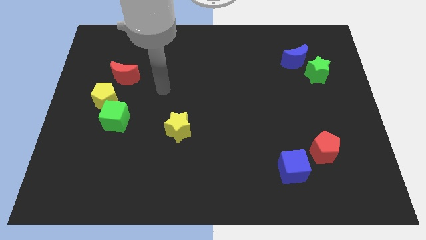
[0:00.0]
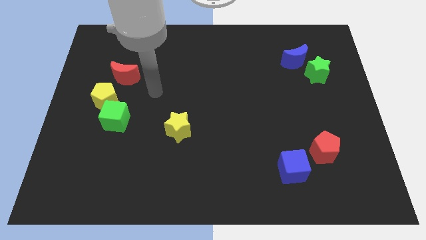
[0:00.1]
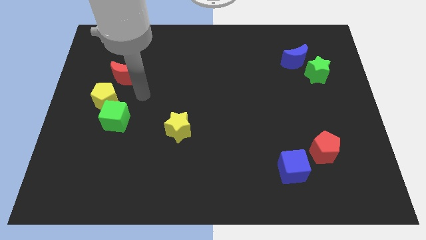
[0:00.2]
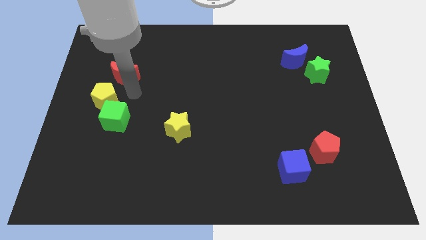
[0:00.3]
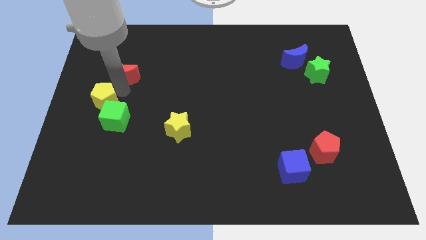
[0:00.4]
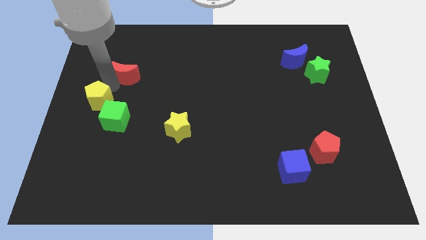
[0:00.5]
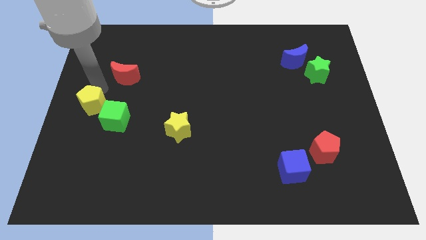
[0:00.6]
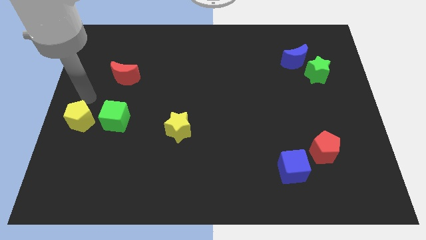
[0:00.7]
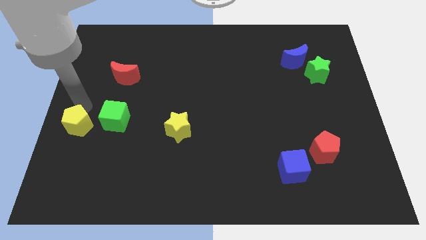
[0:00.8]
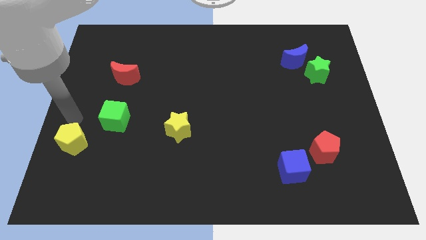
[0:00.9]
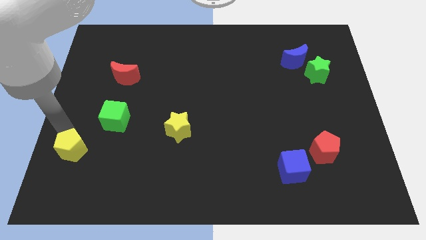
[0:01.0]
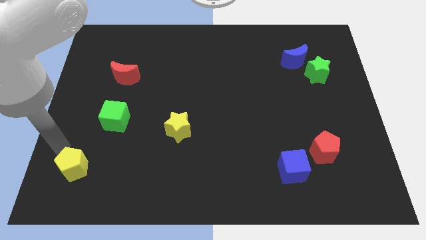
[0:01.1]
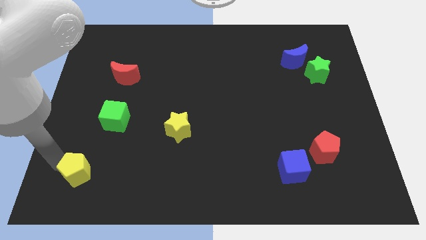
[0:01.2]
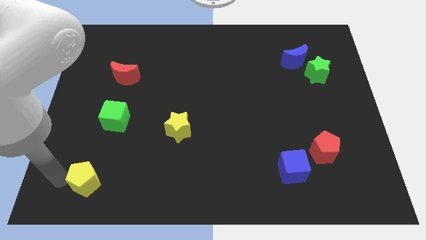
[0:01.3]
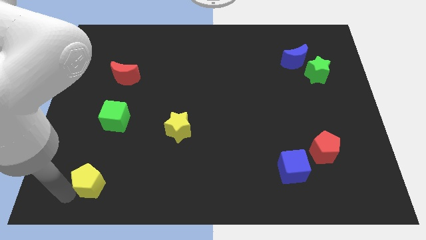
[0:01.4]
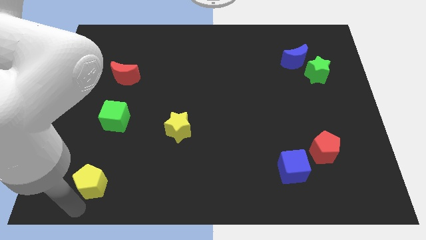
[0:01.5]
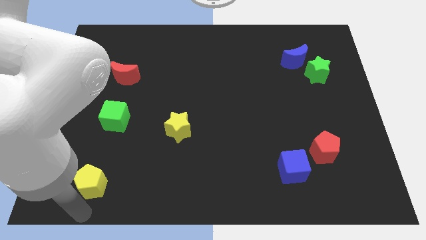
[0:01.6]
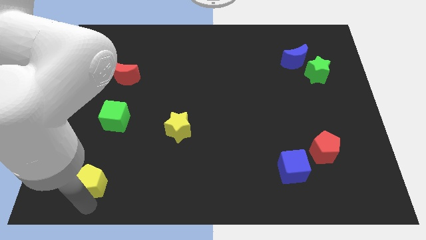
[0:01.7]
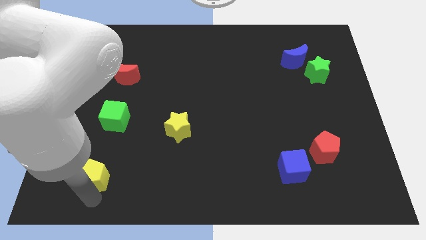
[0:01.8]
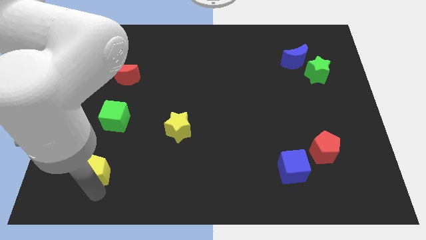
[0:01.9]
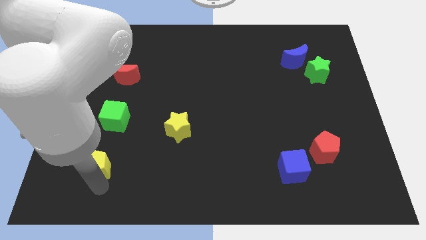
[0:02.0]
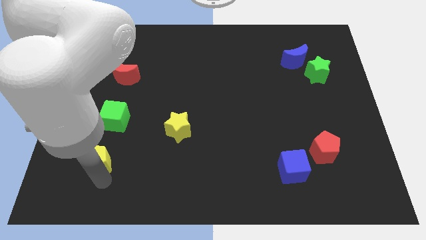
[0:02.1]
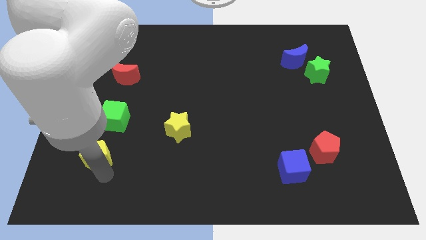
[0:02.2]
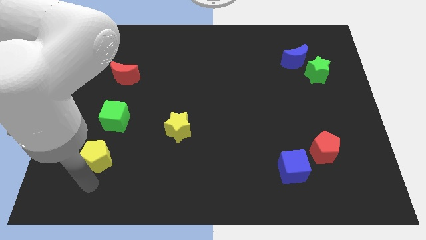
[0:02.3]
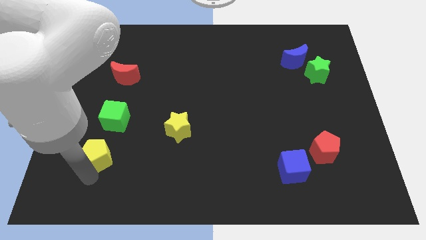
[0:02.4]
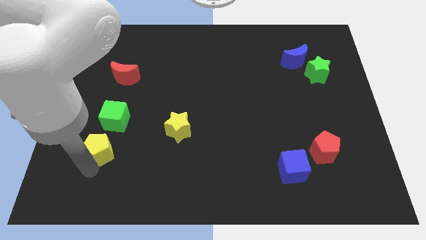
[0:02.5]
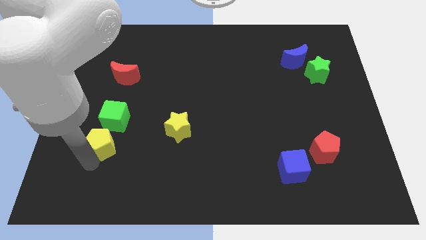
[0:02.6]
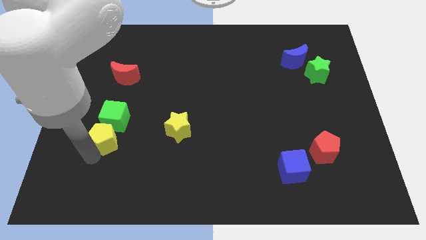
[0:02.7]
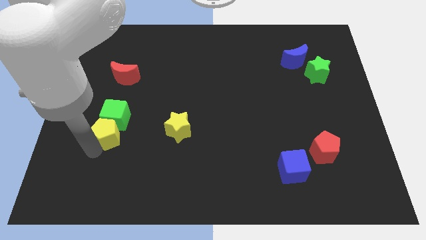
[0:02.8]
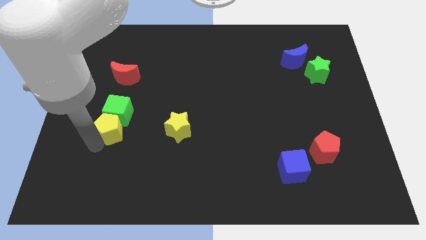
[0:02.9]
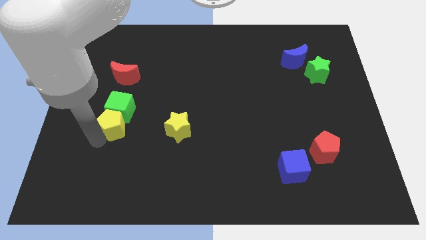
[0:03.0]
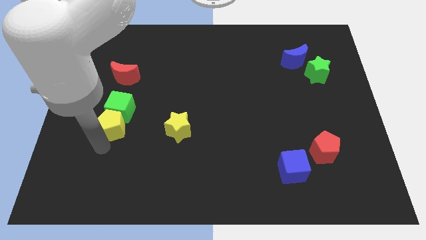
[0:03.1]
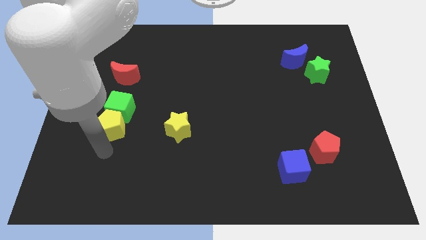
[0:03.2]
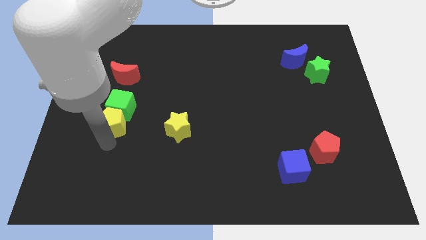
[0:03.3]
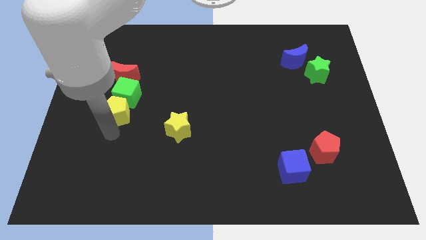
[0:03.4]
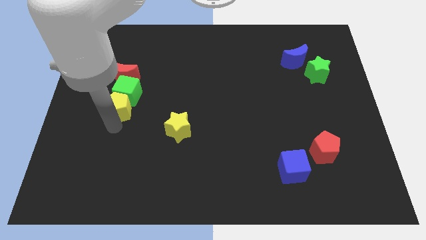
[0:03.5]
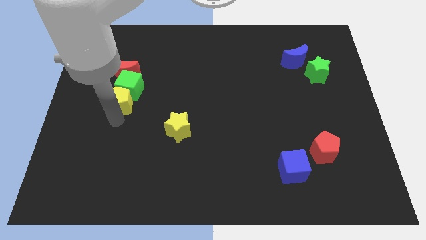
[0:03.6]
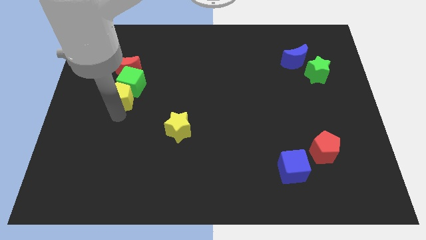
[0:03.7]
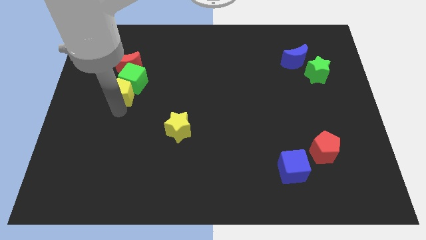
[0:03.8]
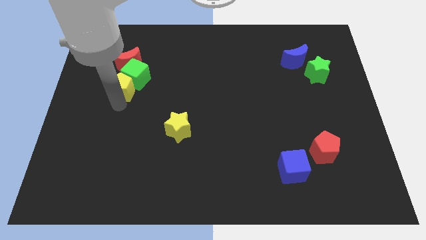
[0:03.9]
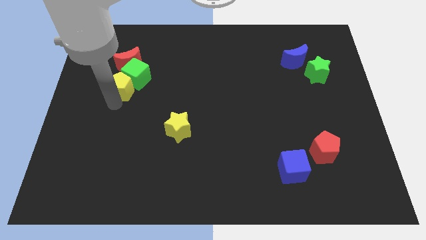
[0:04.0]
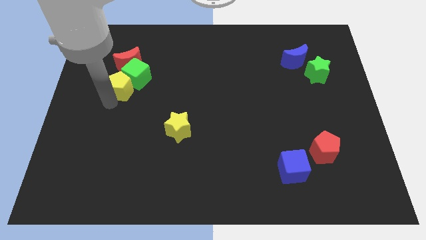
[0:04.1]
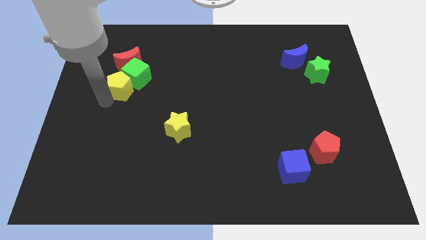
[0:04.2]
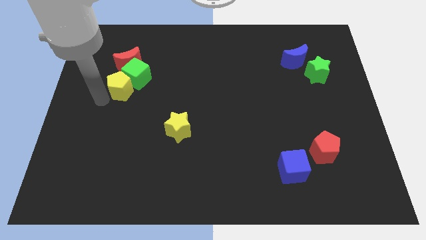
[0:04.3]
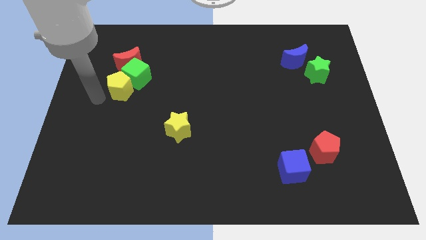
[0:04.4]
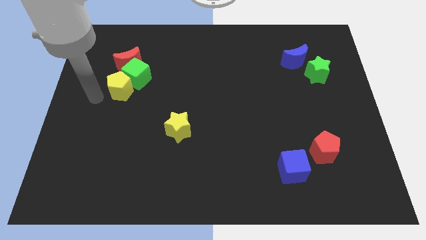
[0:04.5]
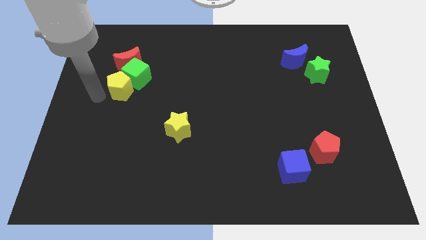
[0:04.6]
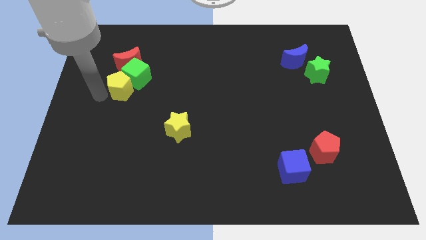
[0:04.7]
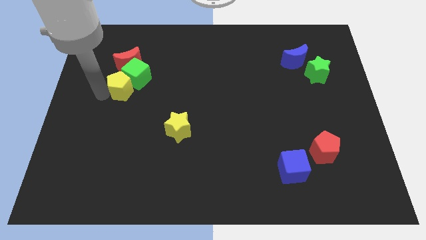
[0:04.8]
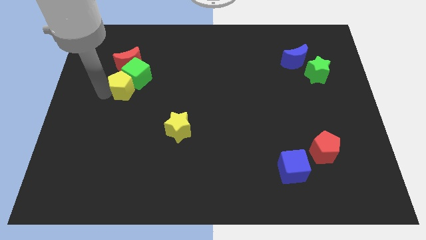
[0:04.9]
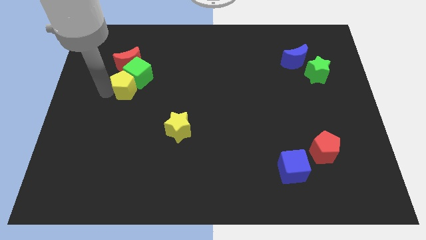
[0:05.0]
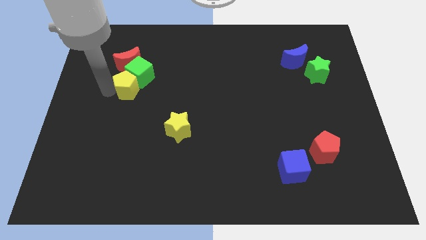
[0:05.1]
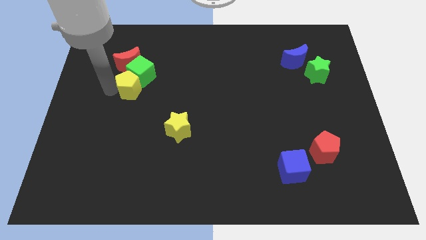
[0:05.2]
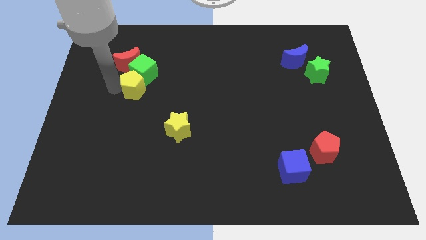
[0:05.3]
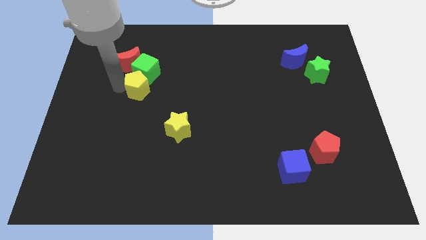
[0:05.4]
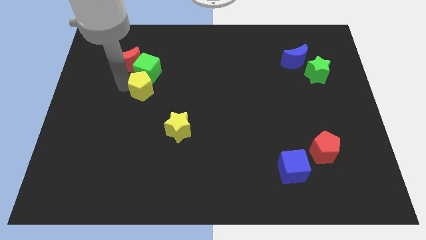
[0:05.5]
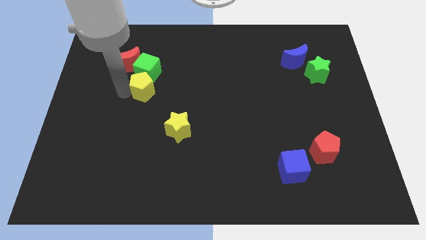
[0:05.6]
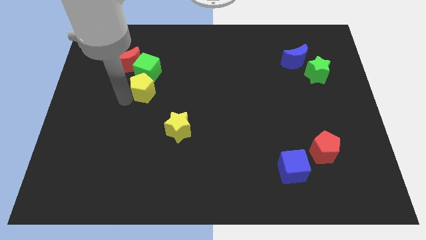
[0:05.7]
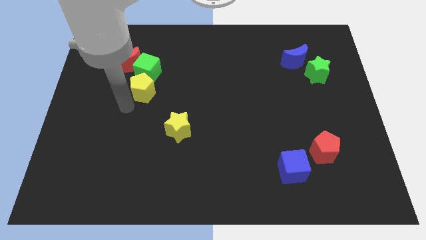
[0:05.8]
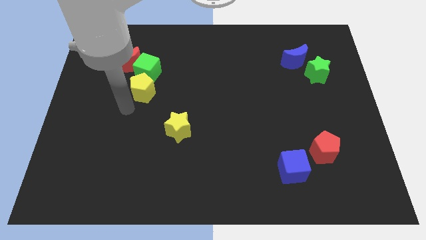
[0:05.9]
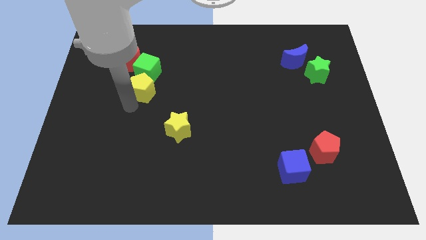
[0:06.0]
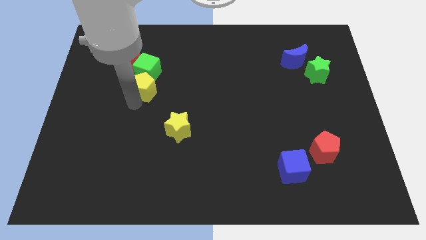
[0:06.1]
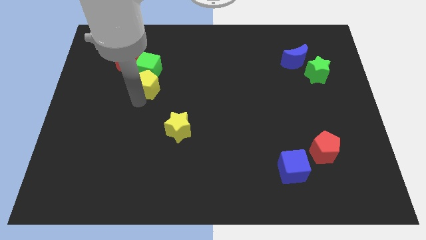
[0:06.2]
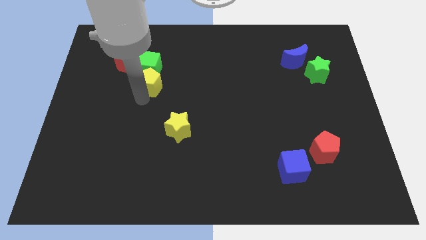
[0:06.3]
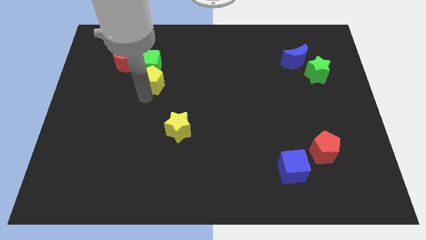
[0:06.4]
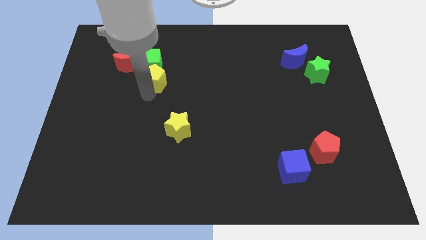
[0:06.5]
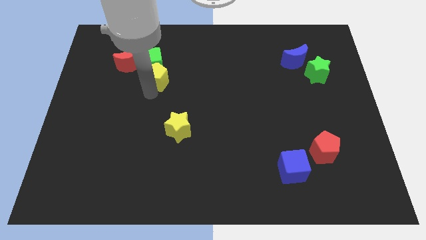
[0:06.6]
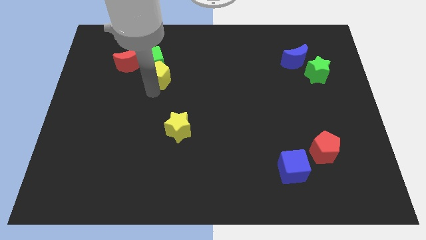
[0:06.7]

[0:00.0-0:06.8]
move the yellow pentagon right of the red moon

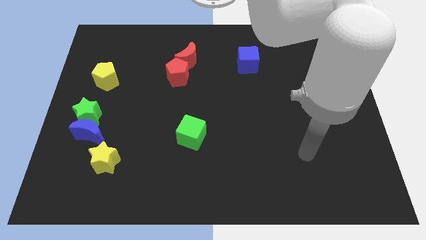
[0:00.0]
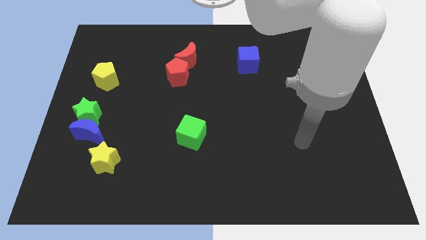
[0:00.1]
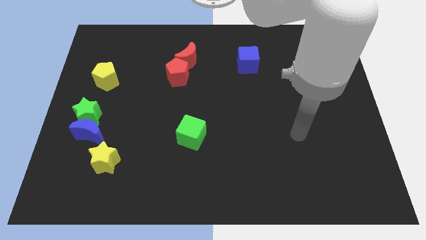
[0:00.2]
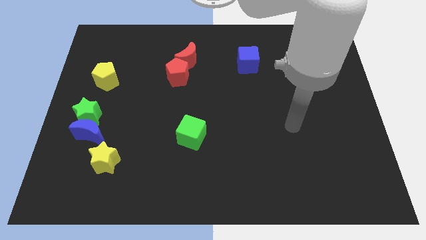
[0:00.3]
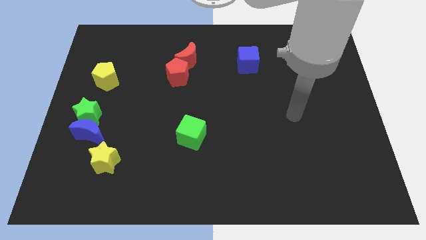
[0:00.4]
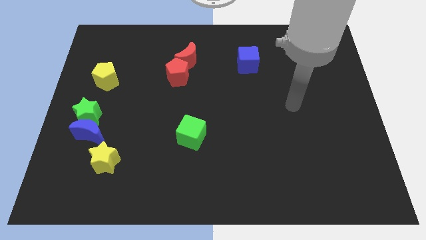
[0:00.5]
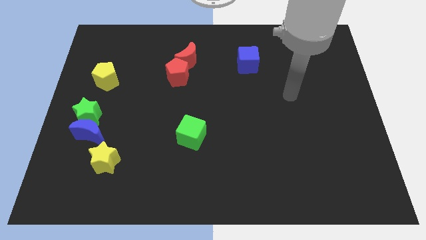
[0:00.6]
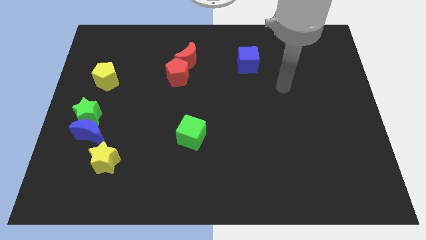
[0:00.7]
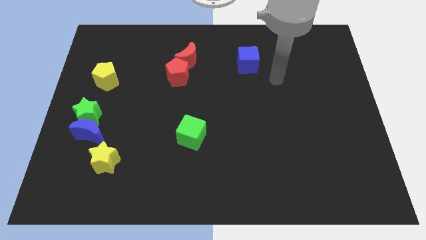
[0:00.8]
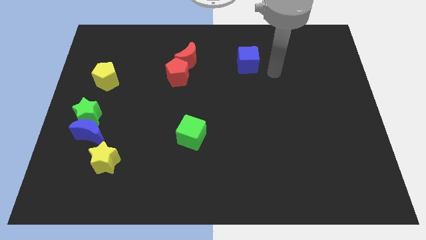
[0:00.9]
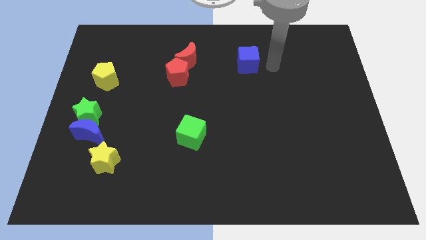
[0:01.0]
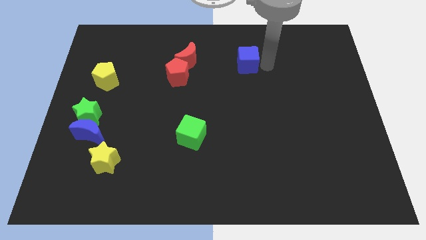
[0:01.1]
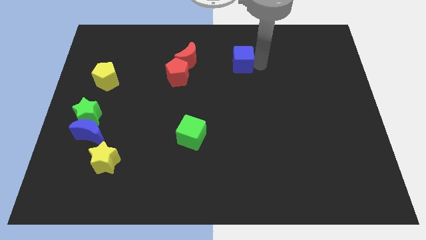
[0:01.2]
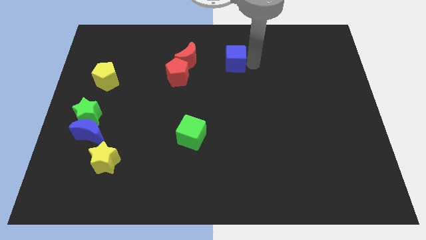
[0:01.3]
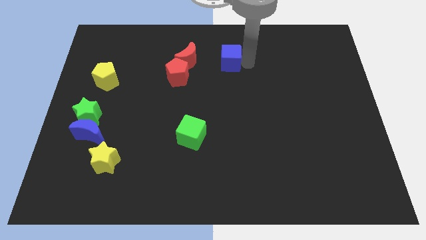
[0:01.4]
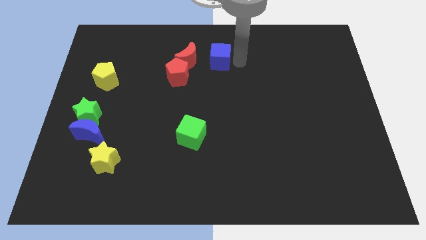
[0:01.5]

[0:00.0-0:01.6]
push the blue cube diagonally up and to the right of the red pentagon

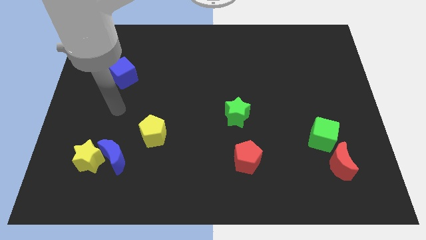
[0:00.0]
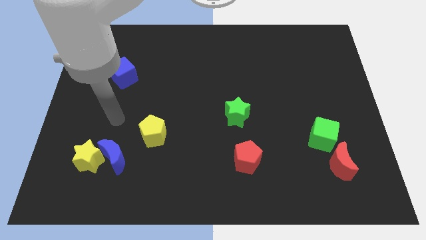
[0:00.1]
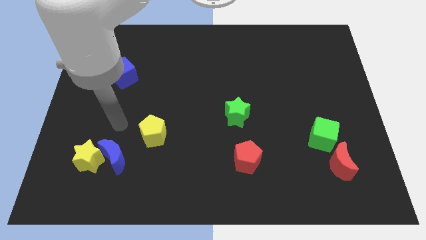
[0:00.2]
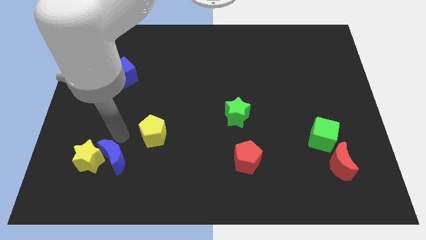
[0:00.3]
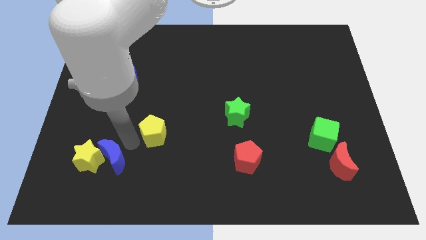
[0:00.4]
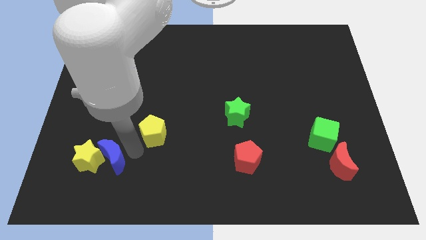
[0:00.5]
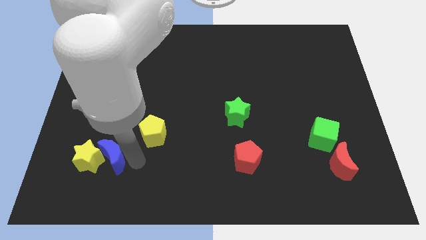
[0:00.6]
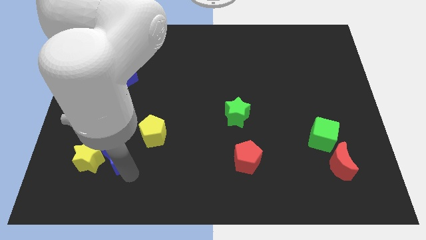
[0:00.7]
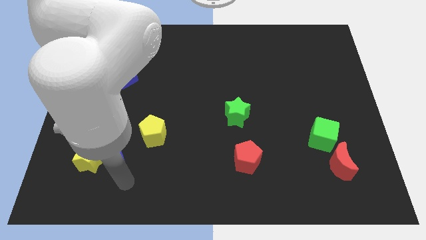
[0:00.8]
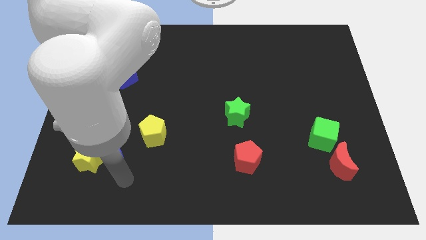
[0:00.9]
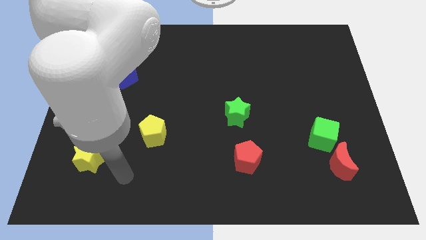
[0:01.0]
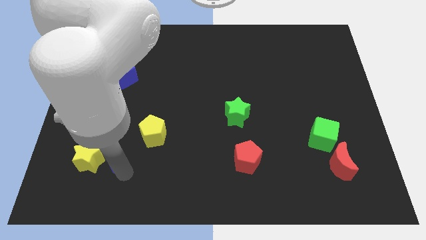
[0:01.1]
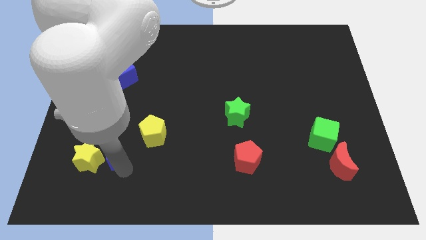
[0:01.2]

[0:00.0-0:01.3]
push the blue moon to the left of the yellow pentagon
